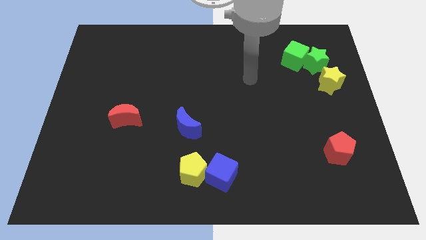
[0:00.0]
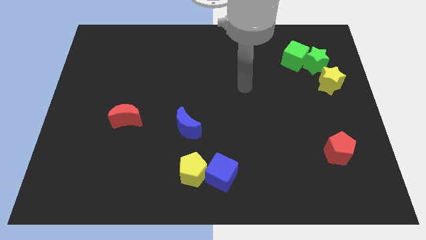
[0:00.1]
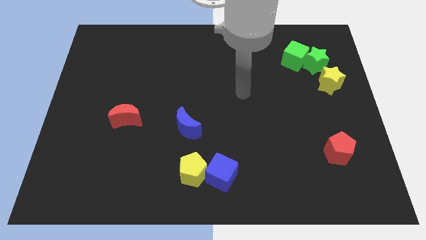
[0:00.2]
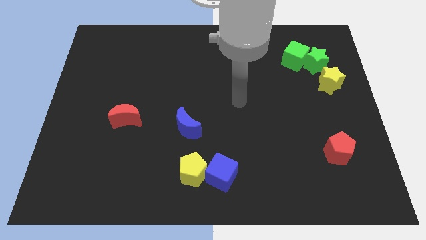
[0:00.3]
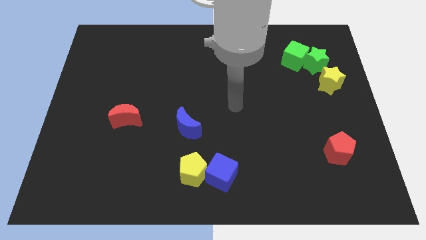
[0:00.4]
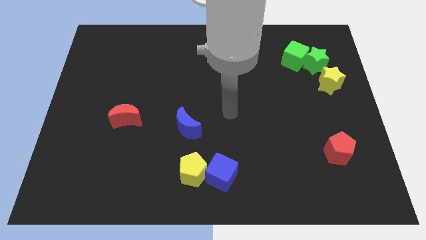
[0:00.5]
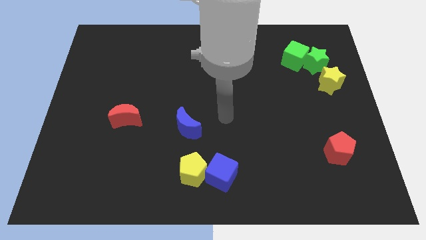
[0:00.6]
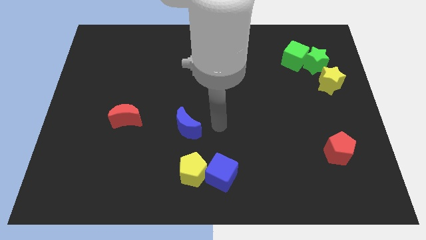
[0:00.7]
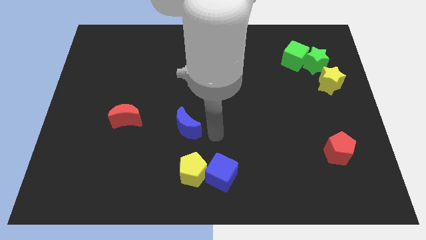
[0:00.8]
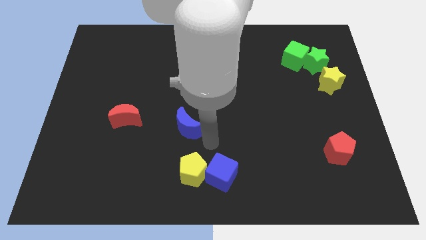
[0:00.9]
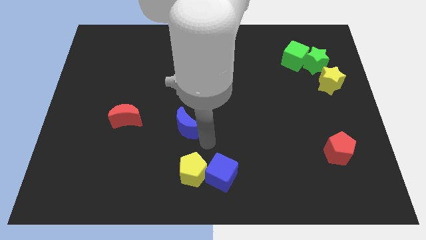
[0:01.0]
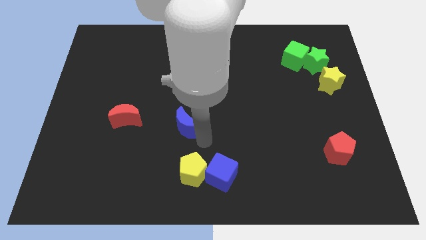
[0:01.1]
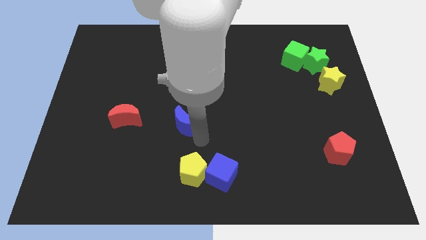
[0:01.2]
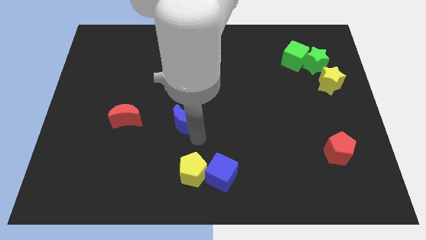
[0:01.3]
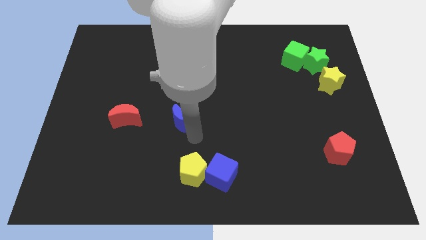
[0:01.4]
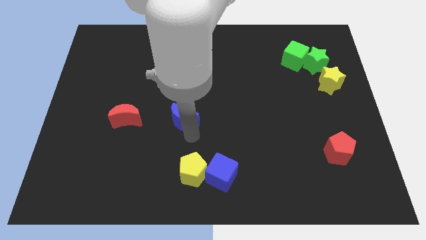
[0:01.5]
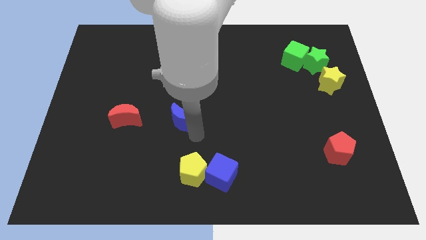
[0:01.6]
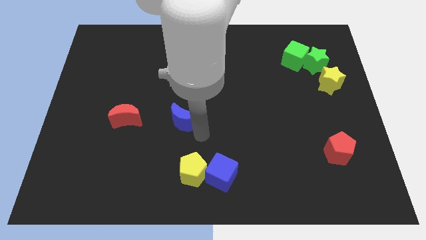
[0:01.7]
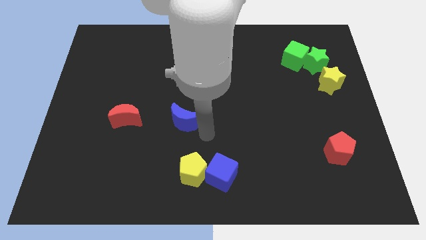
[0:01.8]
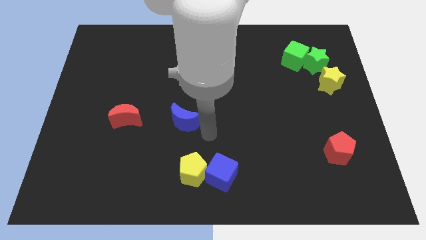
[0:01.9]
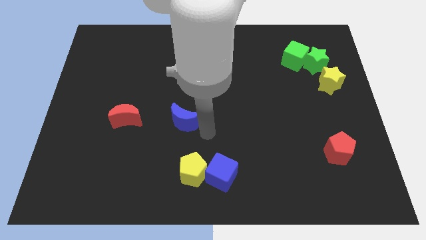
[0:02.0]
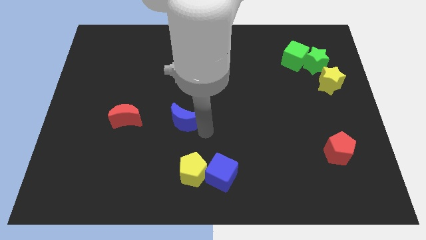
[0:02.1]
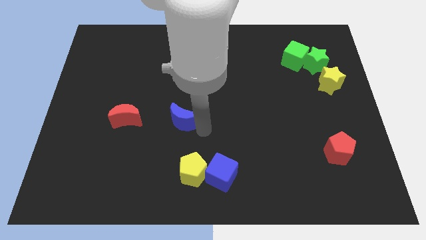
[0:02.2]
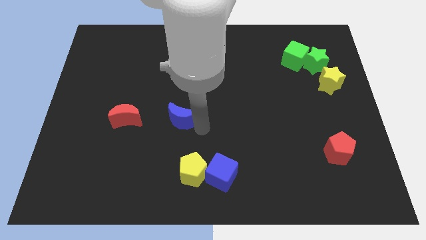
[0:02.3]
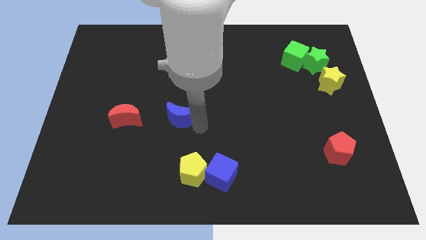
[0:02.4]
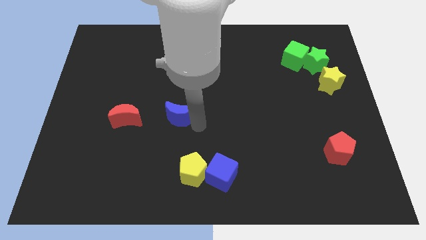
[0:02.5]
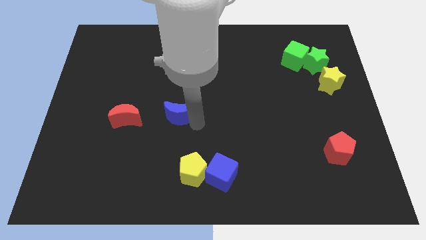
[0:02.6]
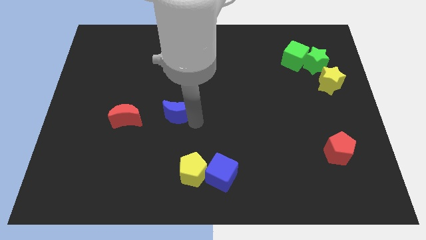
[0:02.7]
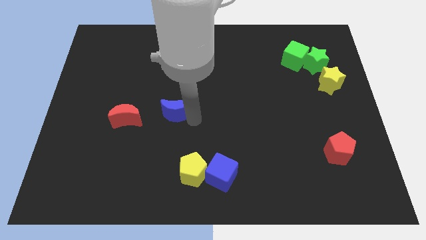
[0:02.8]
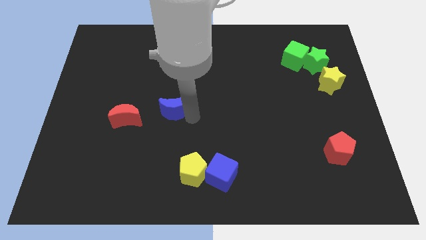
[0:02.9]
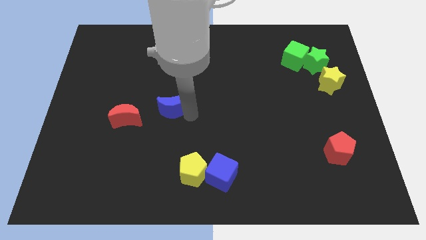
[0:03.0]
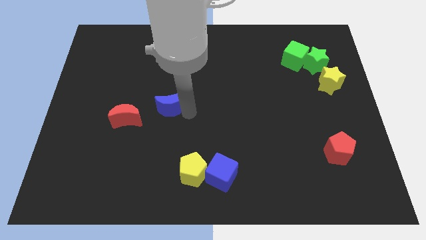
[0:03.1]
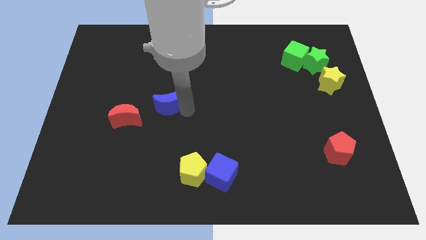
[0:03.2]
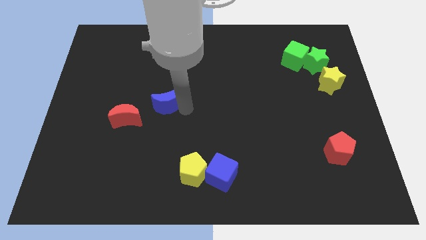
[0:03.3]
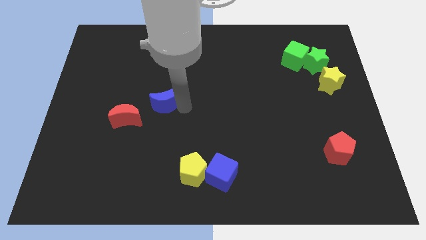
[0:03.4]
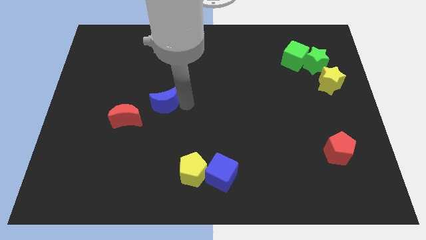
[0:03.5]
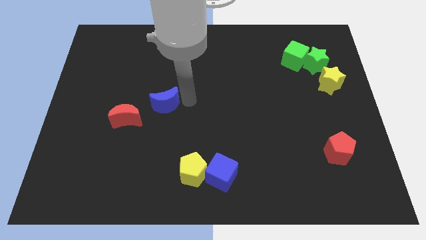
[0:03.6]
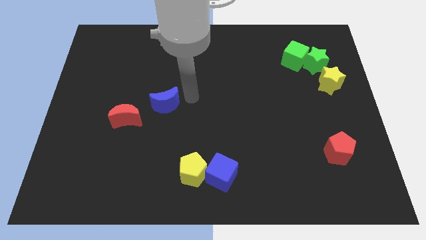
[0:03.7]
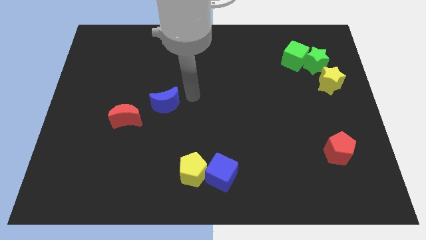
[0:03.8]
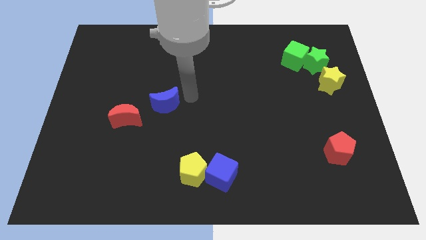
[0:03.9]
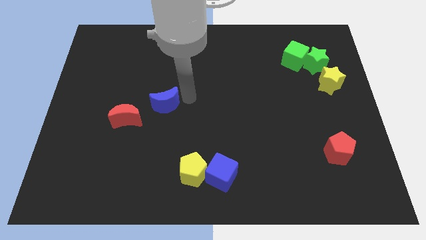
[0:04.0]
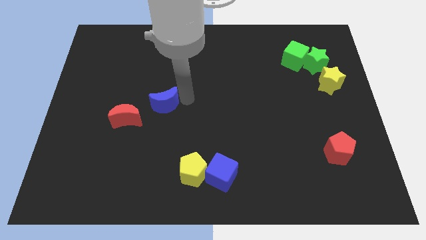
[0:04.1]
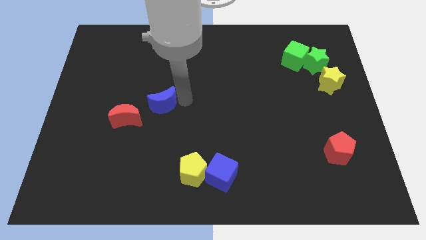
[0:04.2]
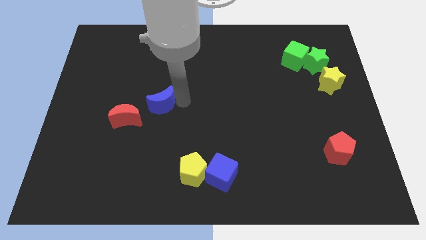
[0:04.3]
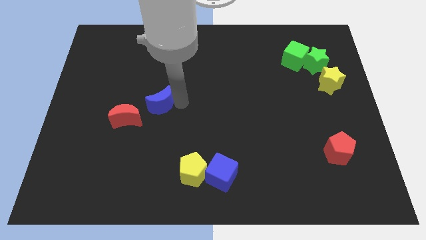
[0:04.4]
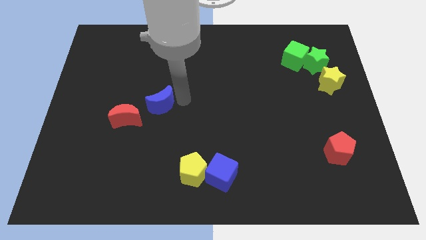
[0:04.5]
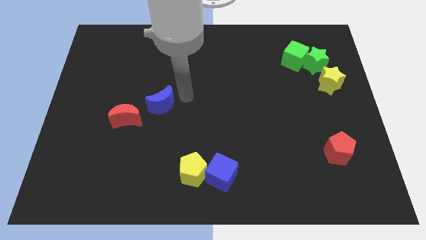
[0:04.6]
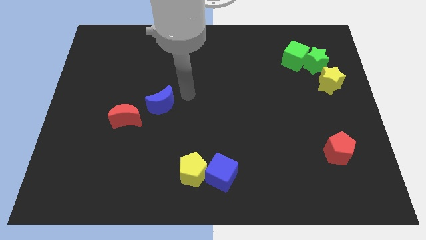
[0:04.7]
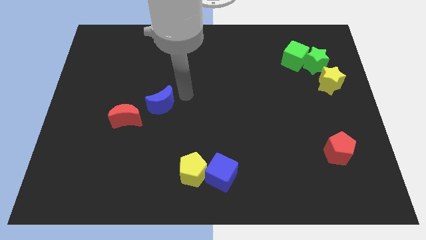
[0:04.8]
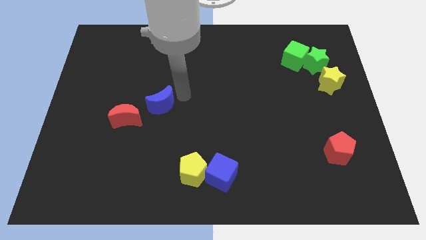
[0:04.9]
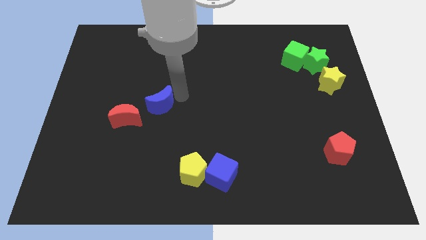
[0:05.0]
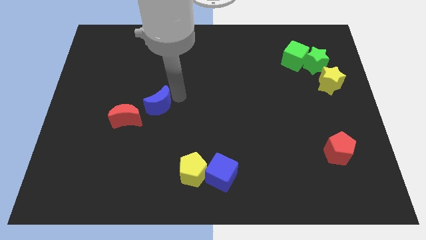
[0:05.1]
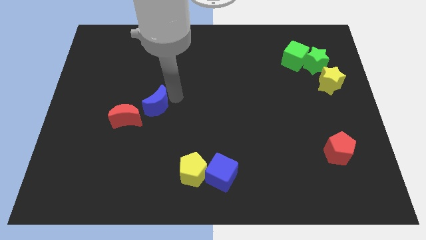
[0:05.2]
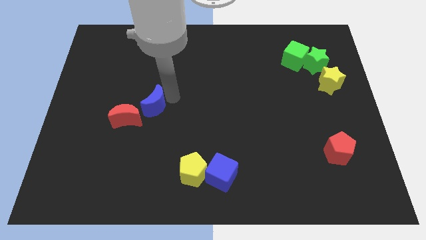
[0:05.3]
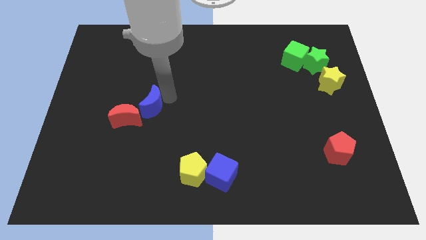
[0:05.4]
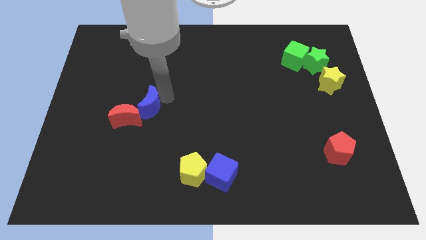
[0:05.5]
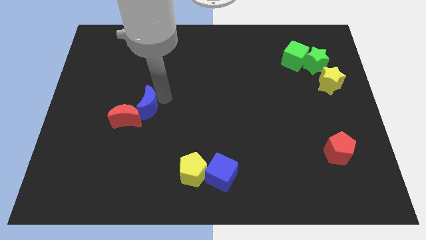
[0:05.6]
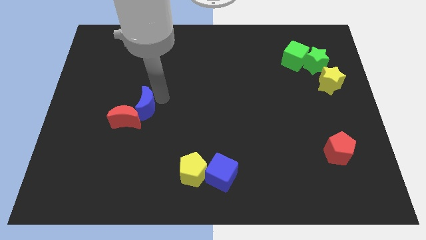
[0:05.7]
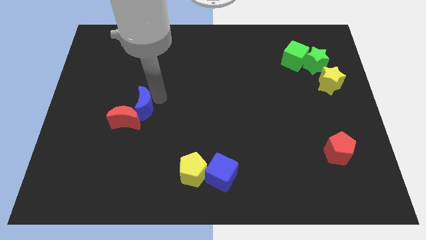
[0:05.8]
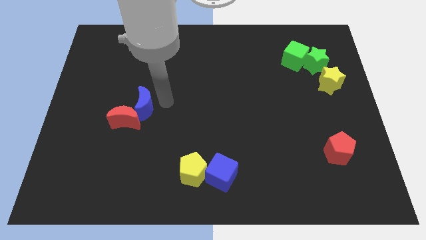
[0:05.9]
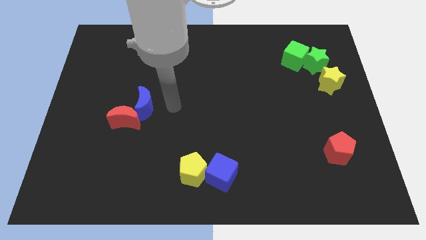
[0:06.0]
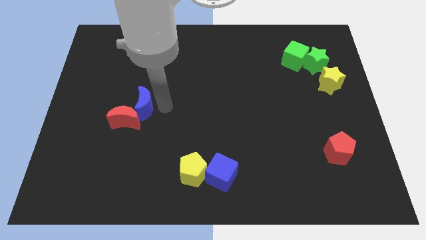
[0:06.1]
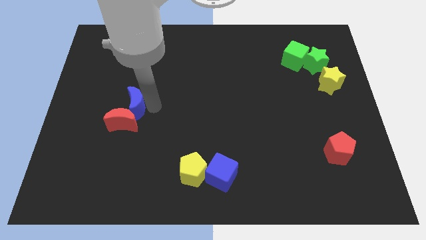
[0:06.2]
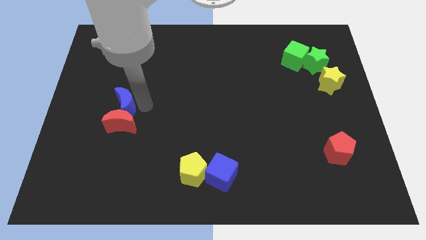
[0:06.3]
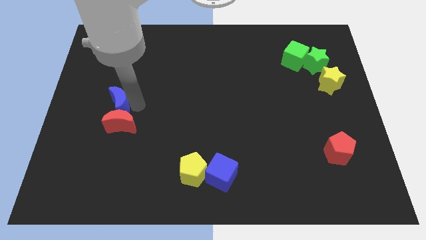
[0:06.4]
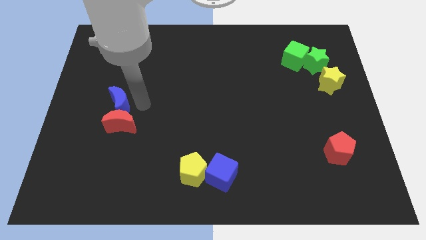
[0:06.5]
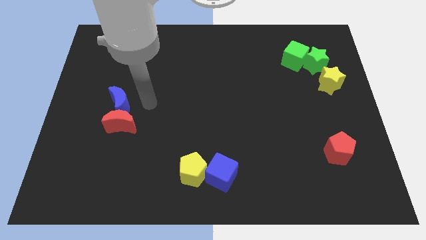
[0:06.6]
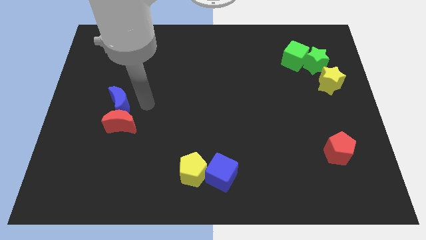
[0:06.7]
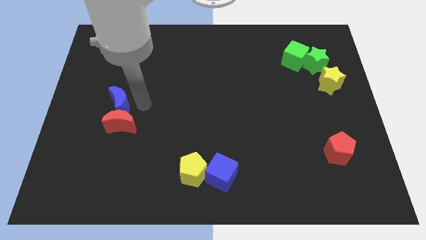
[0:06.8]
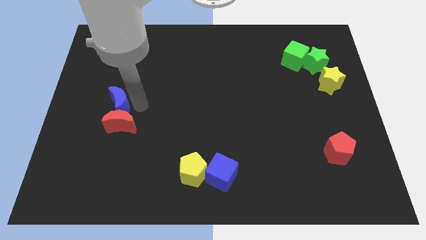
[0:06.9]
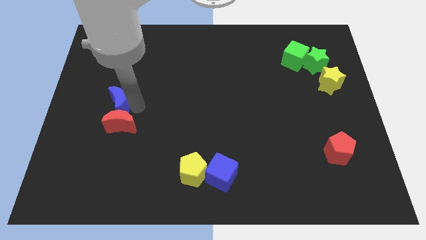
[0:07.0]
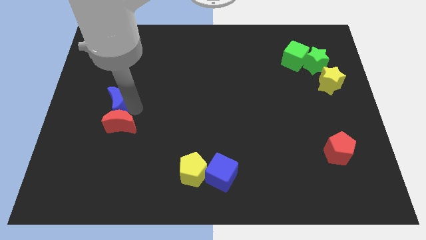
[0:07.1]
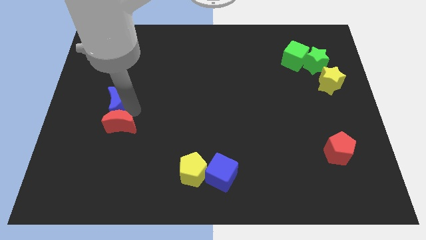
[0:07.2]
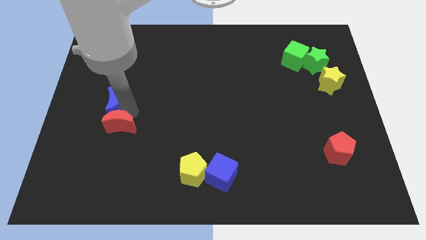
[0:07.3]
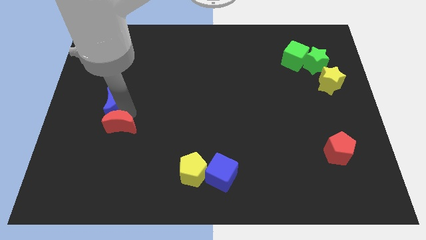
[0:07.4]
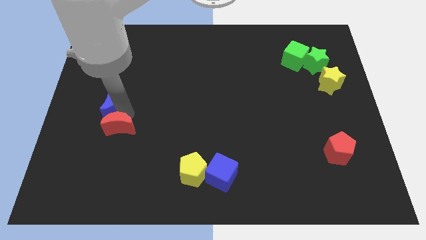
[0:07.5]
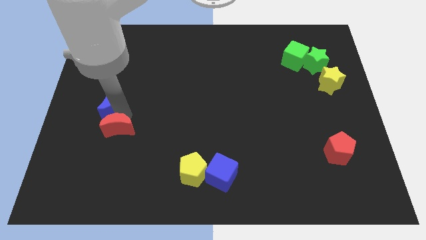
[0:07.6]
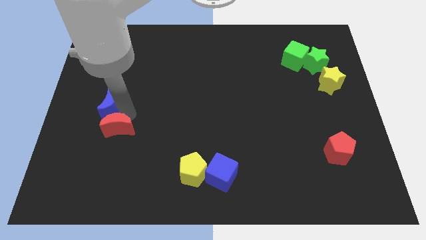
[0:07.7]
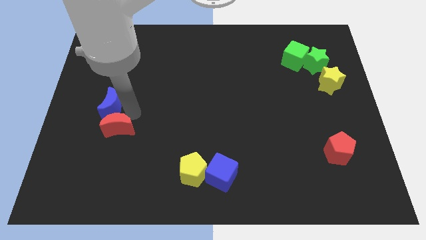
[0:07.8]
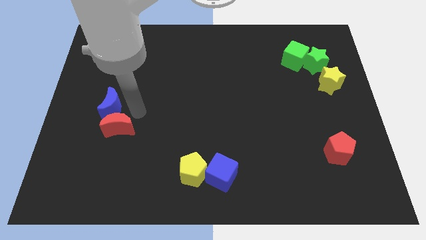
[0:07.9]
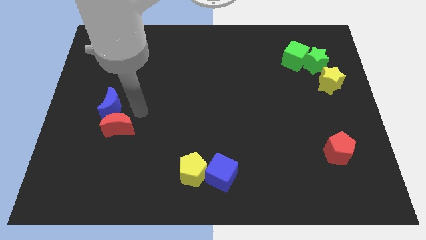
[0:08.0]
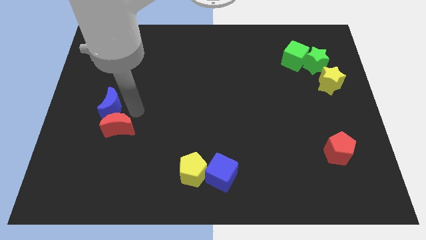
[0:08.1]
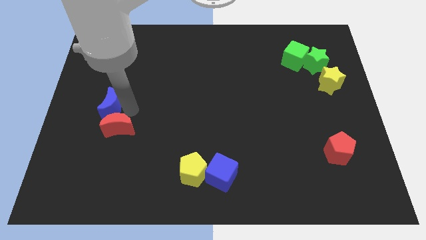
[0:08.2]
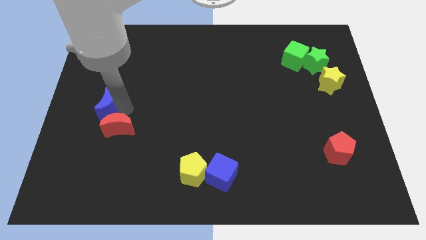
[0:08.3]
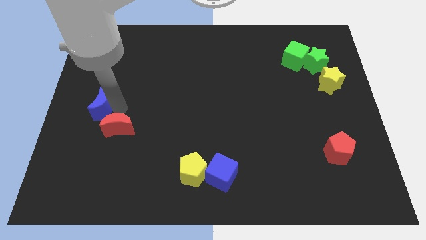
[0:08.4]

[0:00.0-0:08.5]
put the blue moon to the left side of the board
